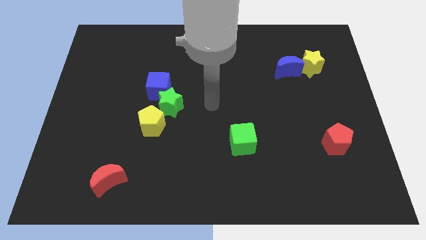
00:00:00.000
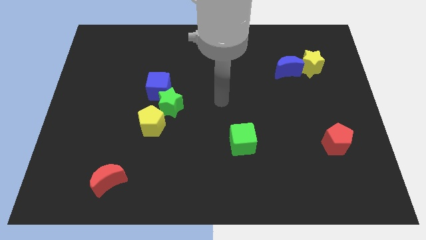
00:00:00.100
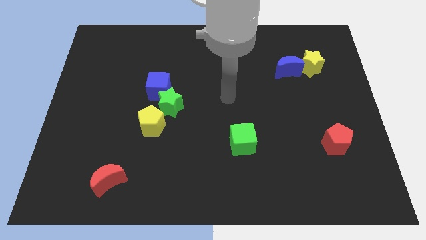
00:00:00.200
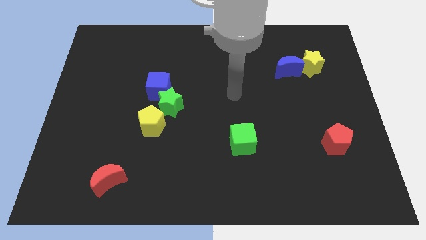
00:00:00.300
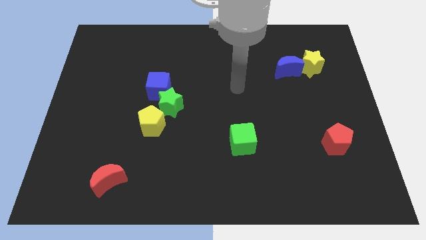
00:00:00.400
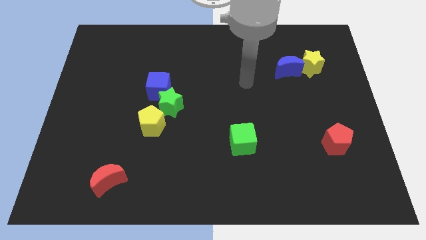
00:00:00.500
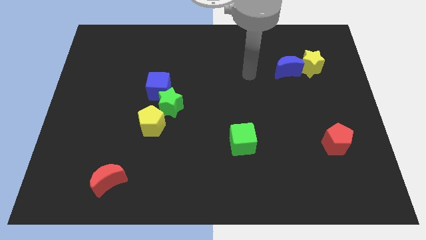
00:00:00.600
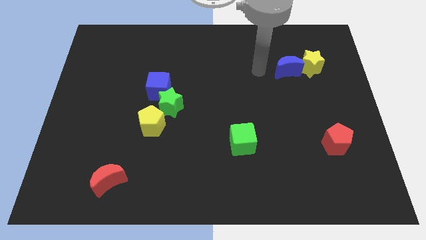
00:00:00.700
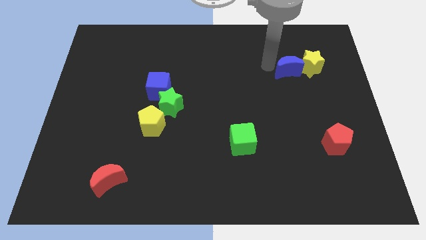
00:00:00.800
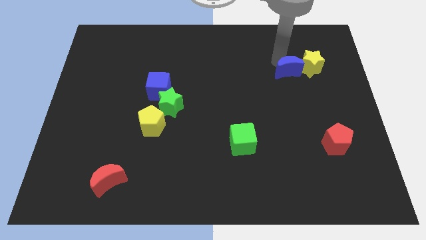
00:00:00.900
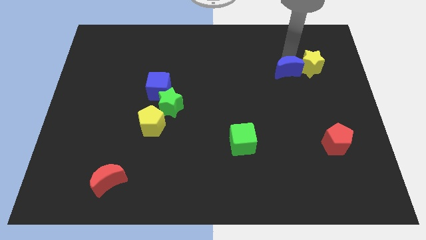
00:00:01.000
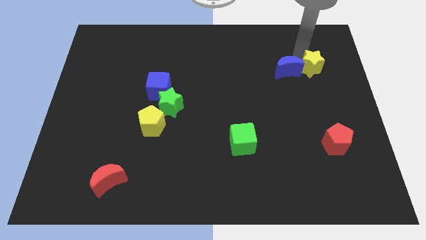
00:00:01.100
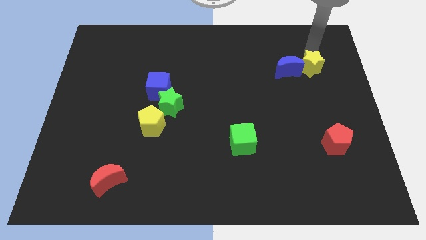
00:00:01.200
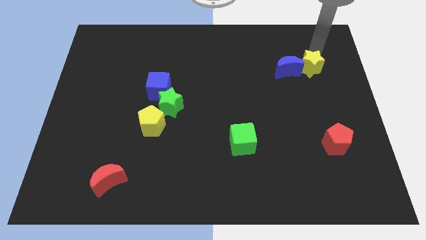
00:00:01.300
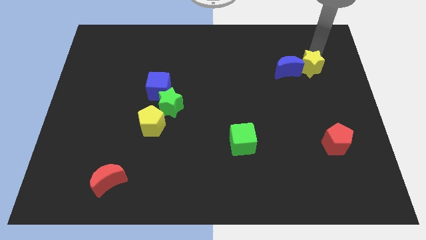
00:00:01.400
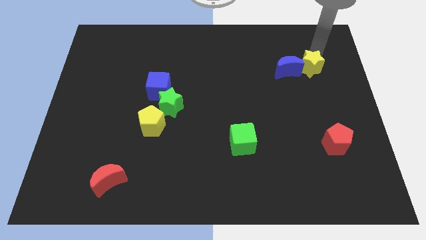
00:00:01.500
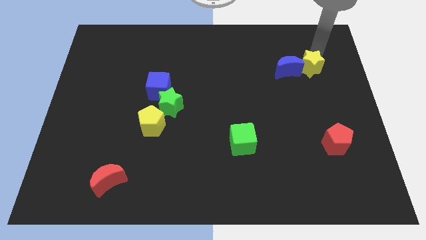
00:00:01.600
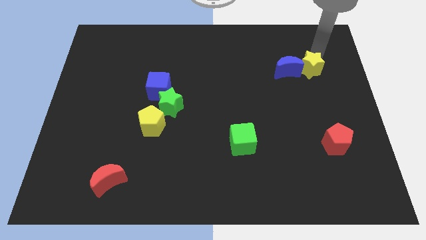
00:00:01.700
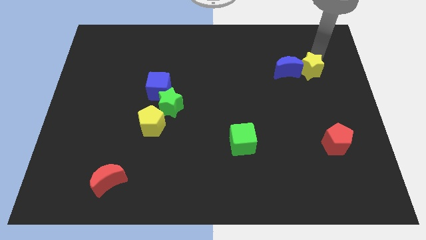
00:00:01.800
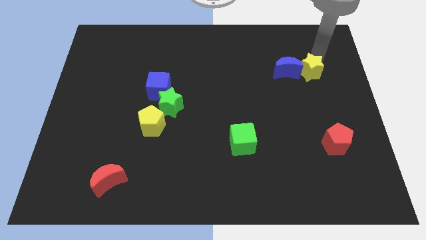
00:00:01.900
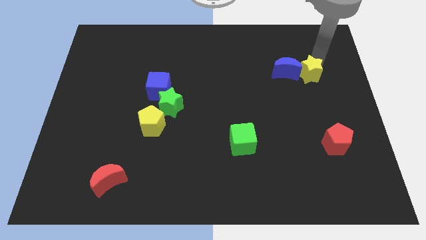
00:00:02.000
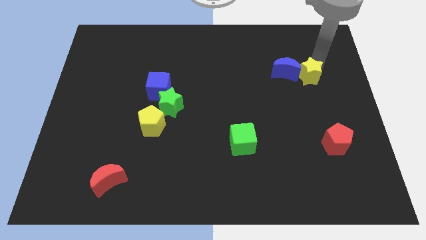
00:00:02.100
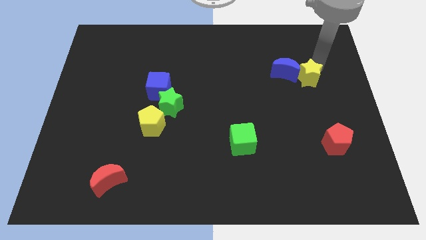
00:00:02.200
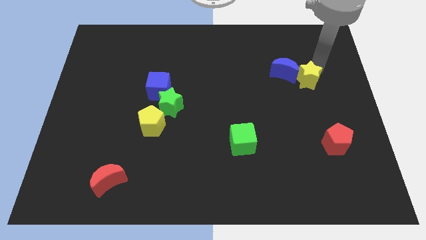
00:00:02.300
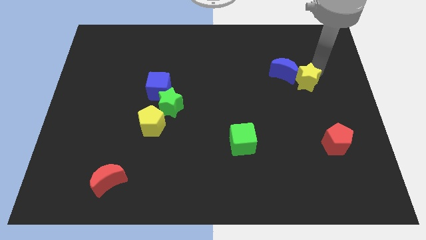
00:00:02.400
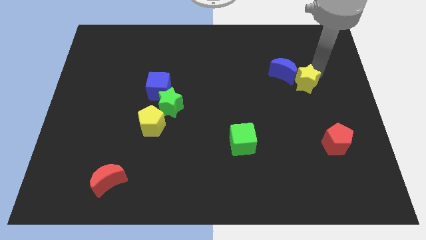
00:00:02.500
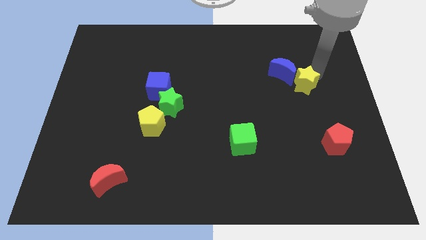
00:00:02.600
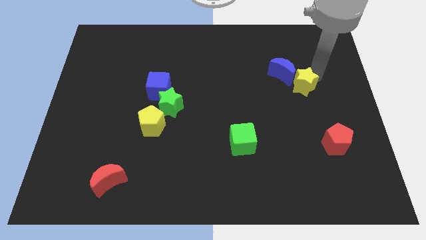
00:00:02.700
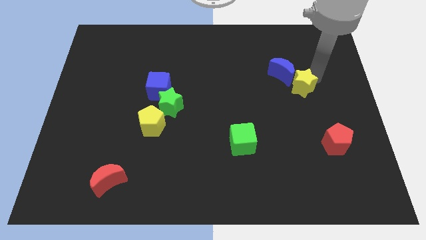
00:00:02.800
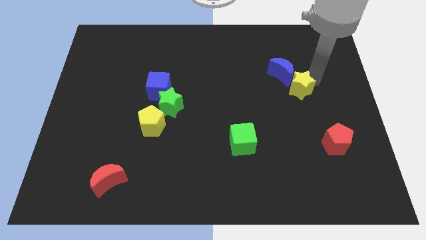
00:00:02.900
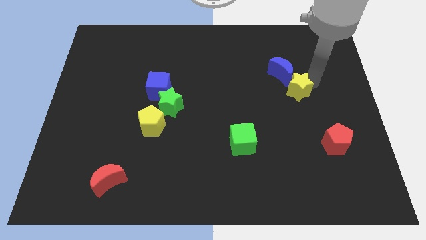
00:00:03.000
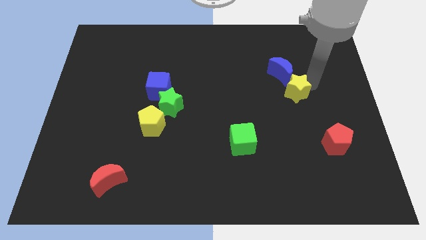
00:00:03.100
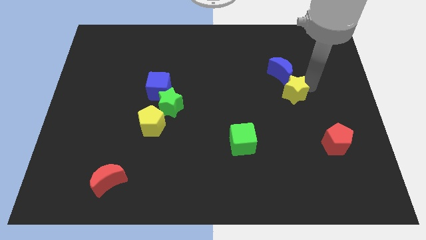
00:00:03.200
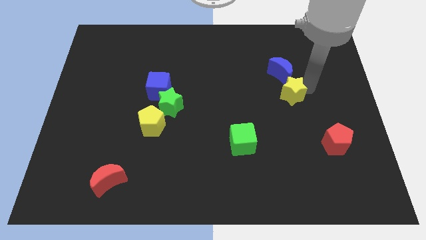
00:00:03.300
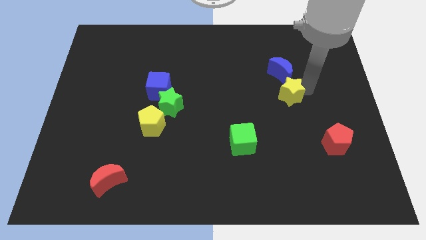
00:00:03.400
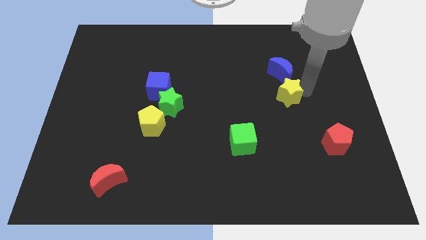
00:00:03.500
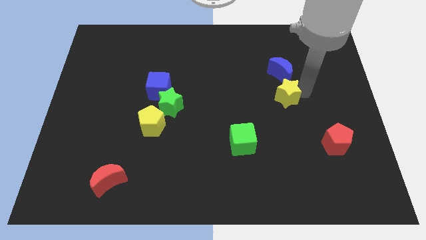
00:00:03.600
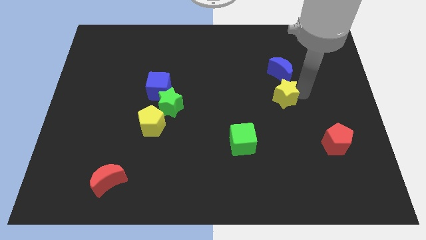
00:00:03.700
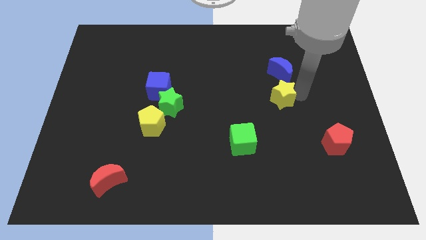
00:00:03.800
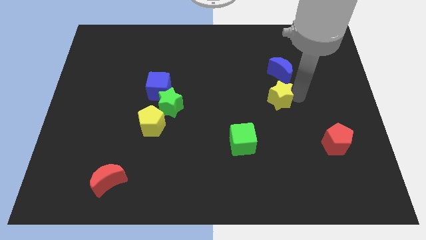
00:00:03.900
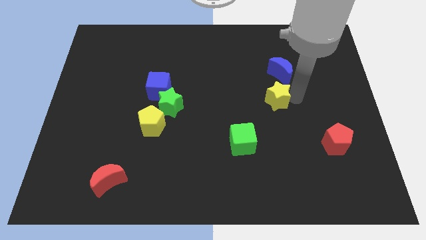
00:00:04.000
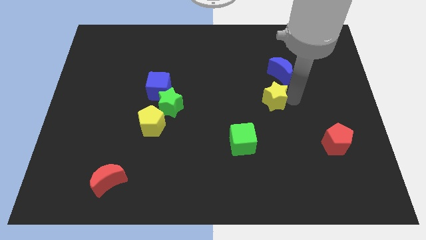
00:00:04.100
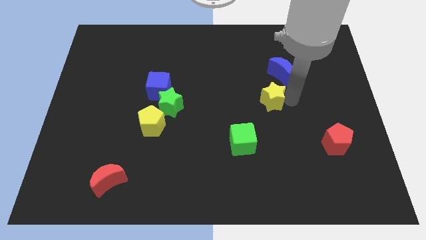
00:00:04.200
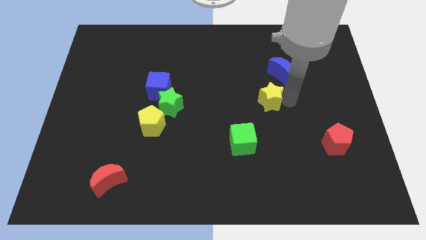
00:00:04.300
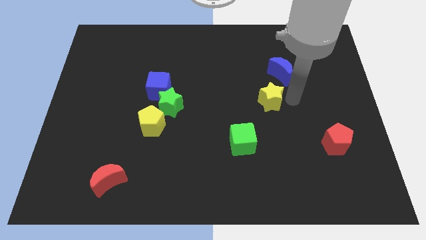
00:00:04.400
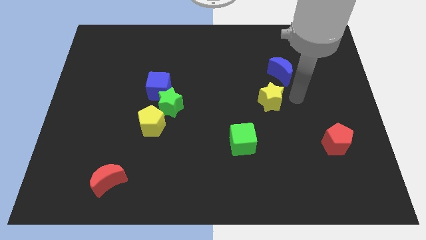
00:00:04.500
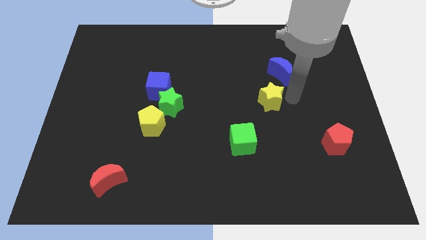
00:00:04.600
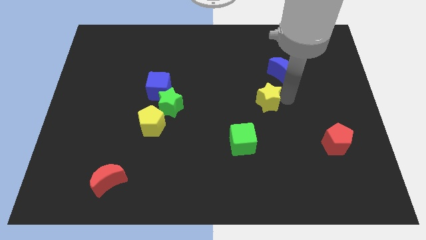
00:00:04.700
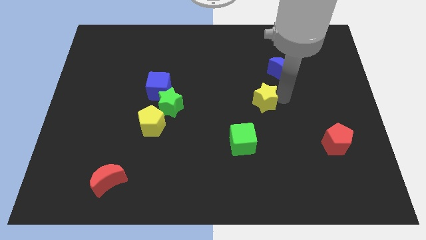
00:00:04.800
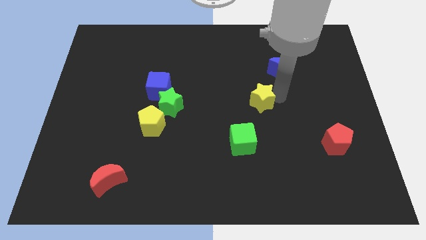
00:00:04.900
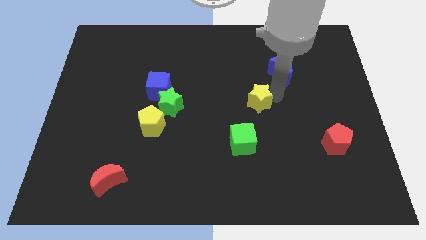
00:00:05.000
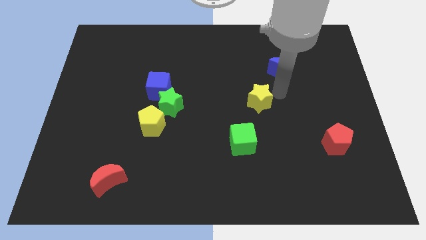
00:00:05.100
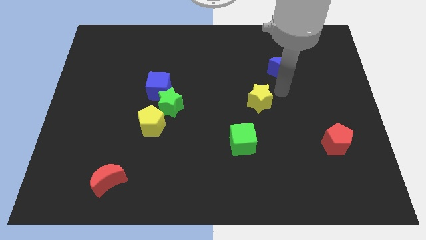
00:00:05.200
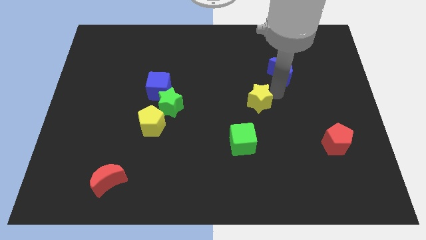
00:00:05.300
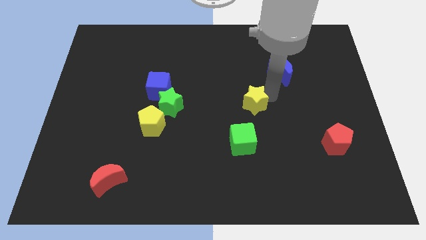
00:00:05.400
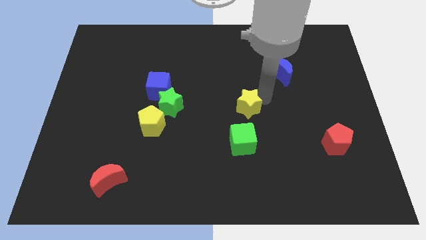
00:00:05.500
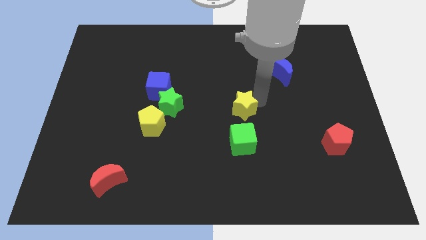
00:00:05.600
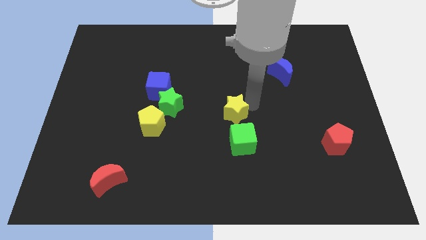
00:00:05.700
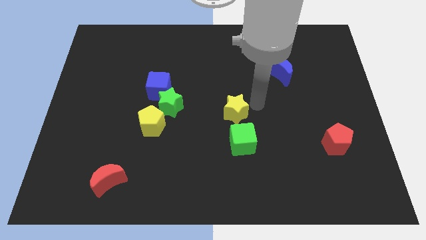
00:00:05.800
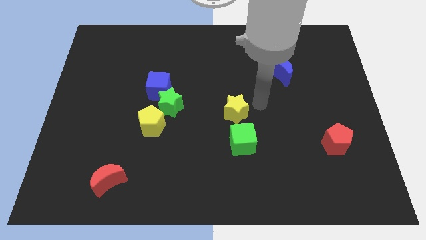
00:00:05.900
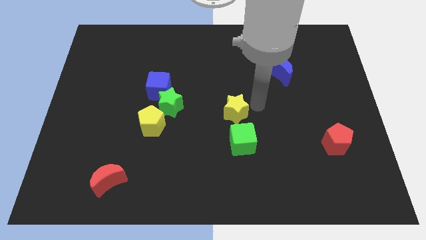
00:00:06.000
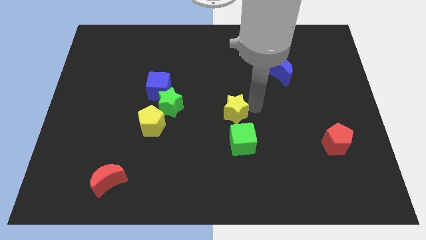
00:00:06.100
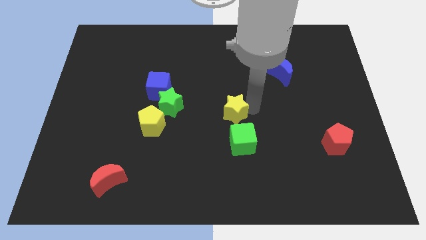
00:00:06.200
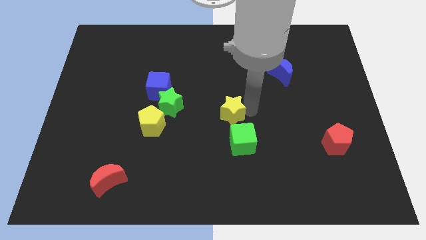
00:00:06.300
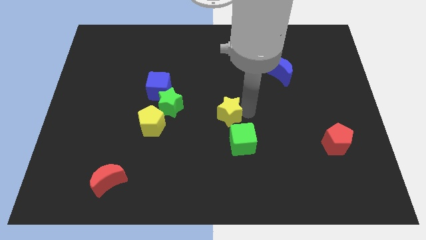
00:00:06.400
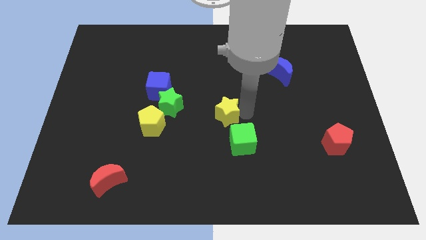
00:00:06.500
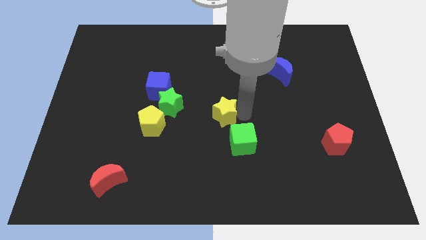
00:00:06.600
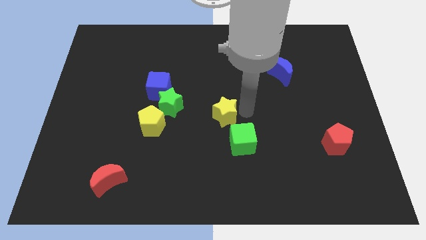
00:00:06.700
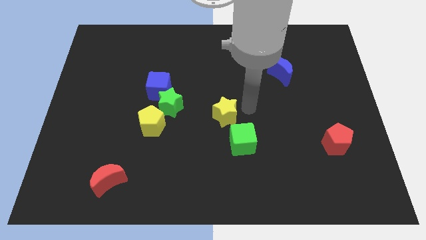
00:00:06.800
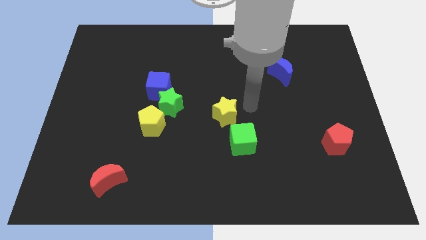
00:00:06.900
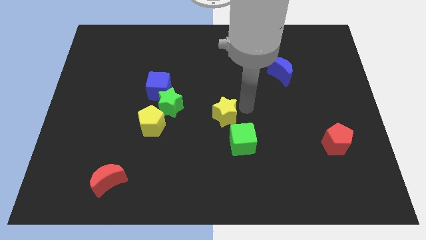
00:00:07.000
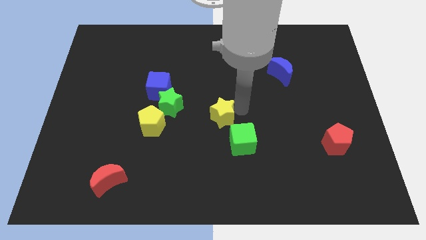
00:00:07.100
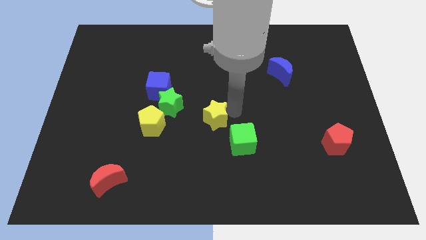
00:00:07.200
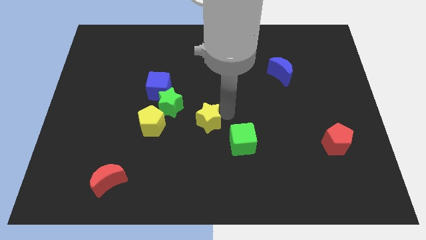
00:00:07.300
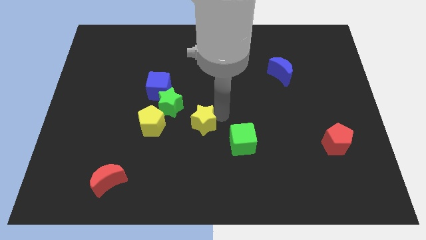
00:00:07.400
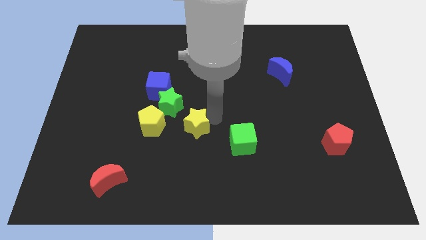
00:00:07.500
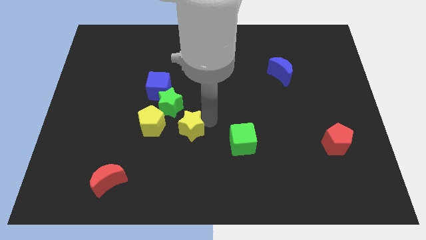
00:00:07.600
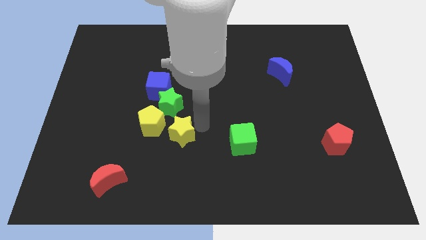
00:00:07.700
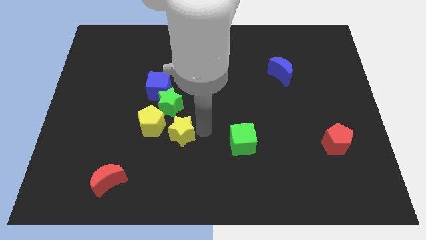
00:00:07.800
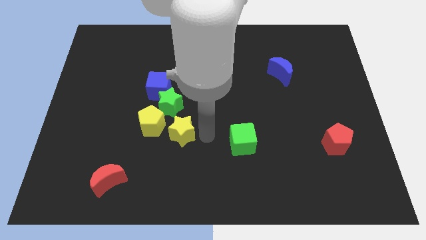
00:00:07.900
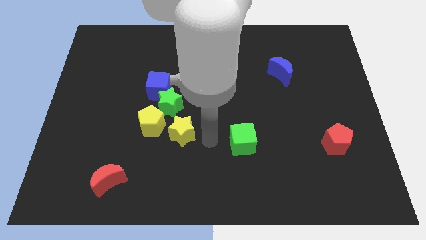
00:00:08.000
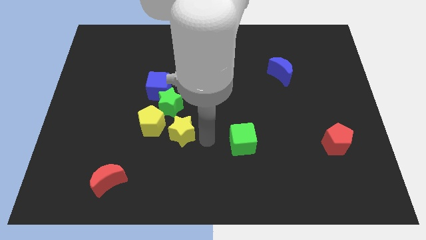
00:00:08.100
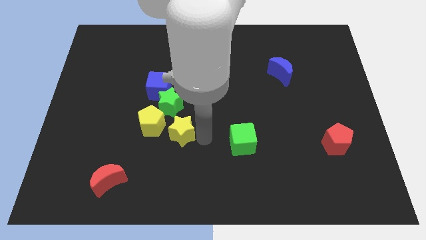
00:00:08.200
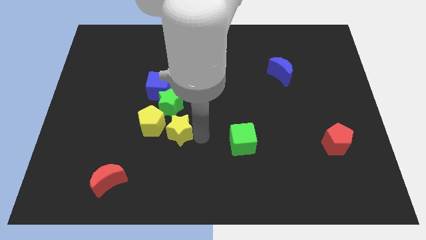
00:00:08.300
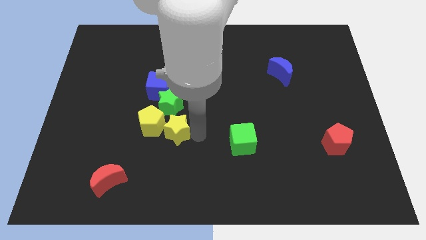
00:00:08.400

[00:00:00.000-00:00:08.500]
push the yellow star close to the yellow pentagon
